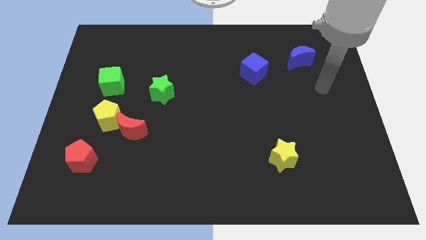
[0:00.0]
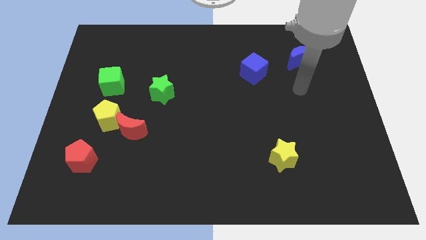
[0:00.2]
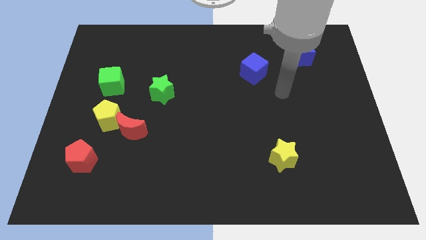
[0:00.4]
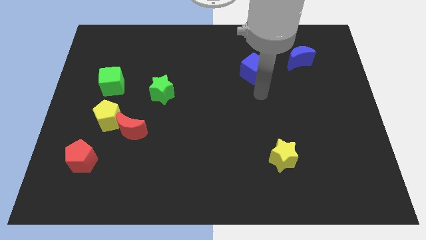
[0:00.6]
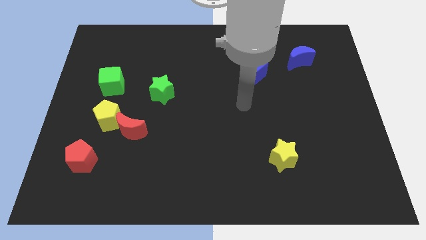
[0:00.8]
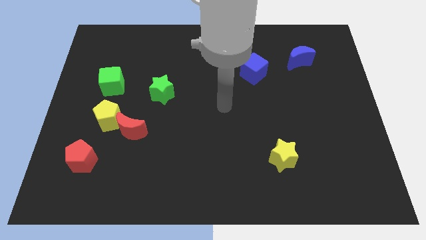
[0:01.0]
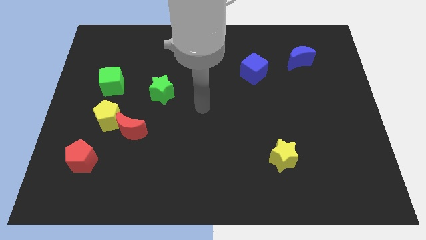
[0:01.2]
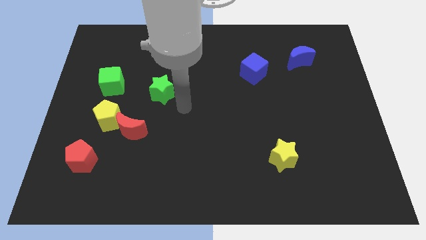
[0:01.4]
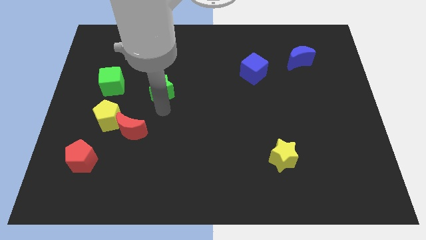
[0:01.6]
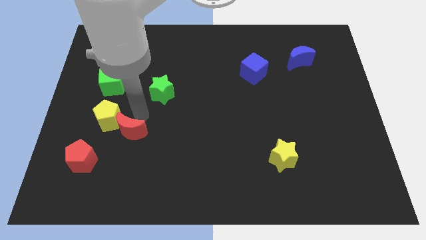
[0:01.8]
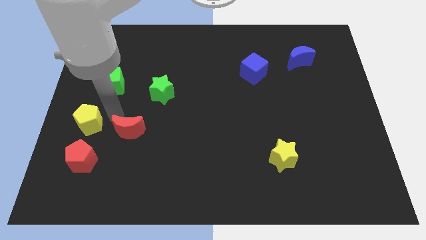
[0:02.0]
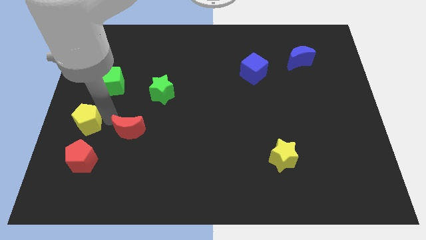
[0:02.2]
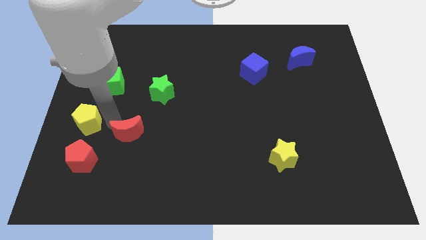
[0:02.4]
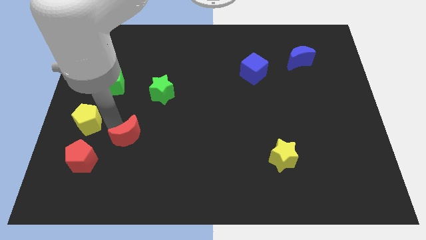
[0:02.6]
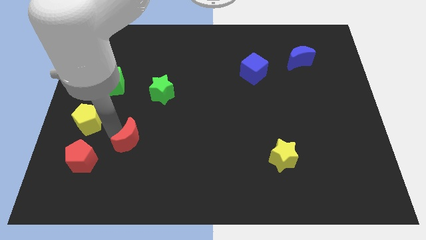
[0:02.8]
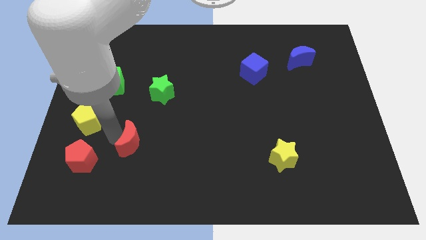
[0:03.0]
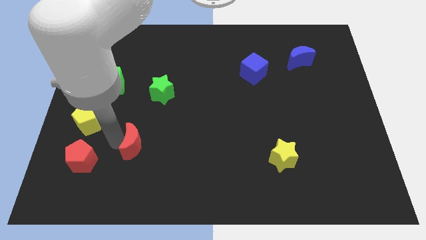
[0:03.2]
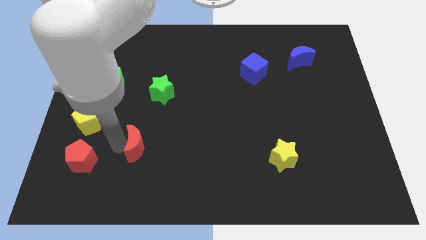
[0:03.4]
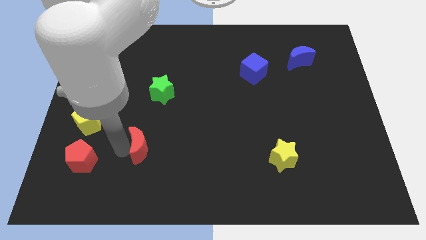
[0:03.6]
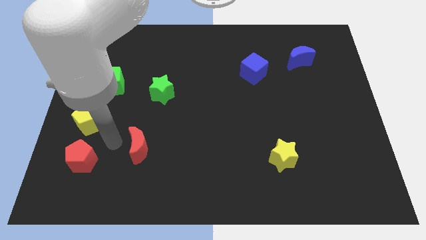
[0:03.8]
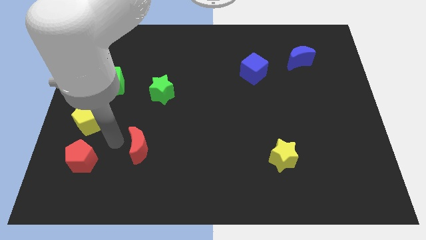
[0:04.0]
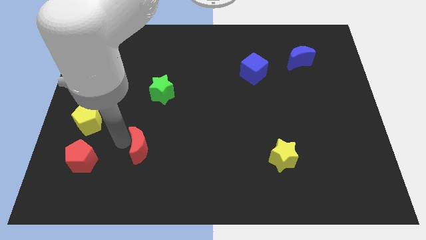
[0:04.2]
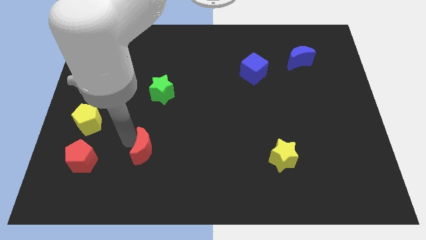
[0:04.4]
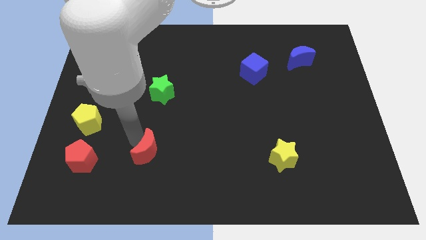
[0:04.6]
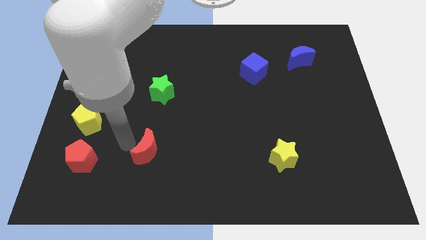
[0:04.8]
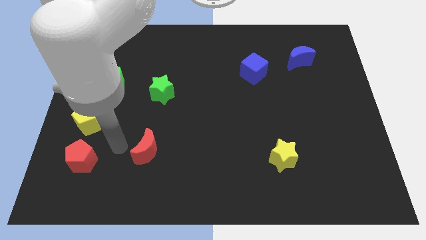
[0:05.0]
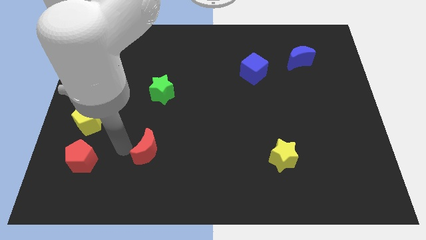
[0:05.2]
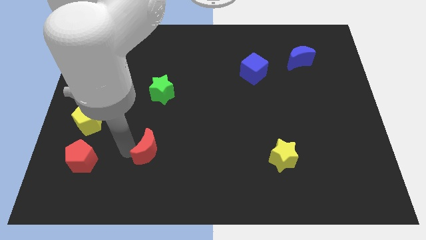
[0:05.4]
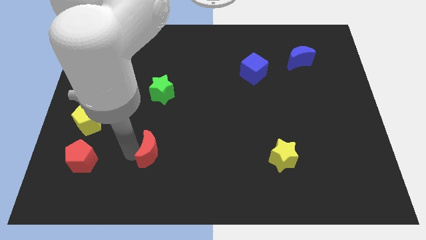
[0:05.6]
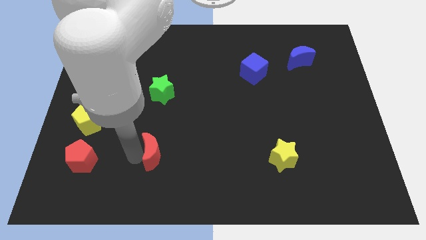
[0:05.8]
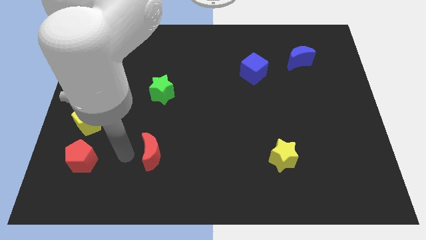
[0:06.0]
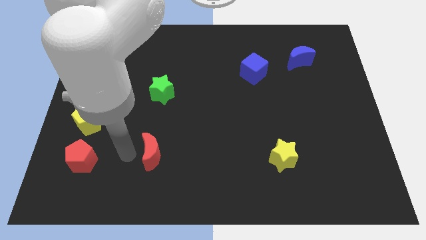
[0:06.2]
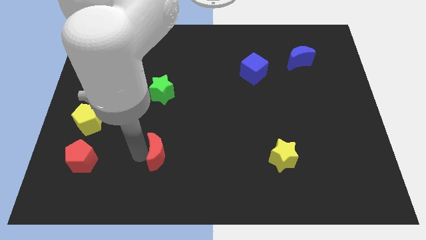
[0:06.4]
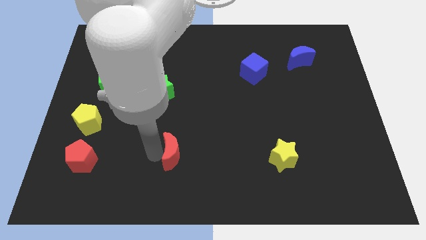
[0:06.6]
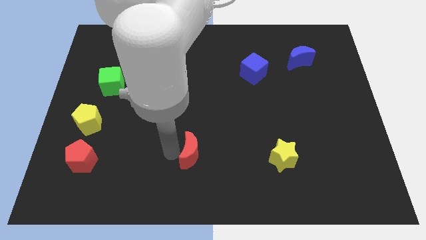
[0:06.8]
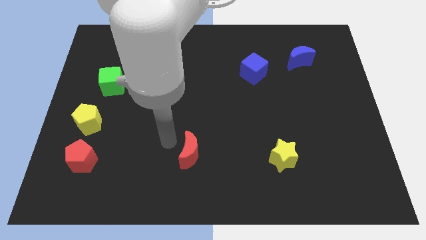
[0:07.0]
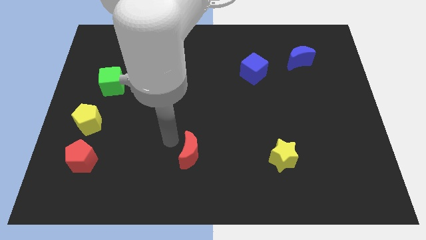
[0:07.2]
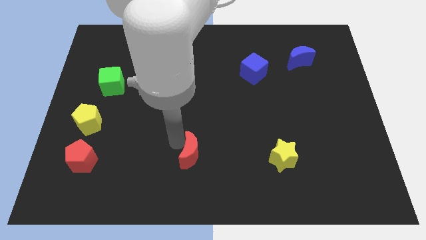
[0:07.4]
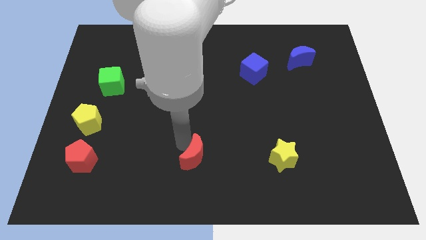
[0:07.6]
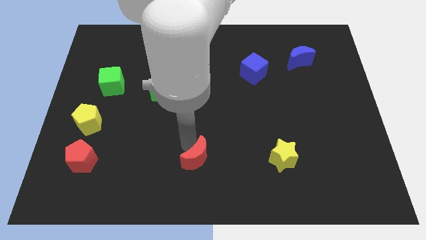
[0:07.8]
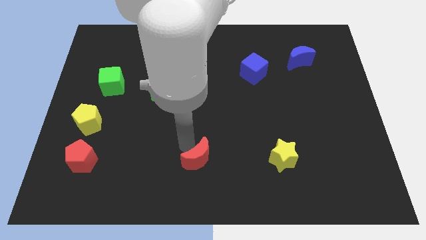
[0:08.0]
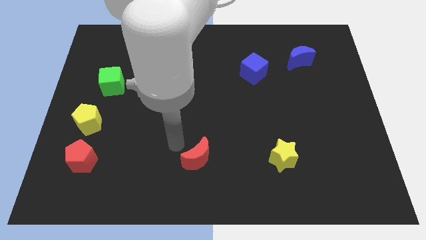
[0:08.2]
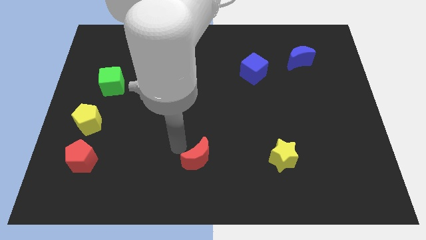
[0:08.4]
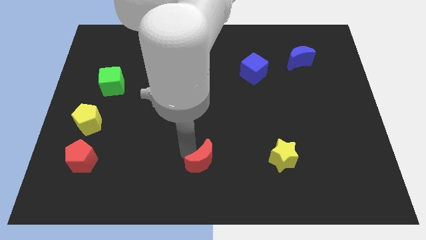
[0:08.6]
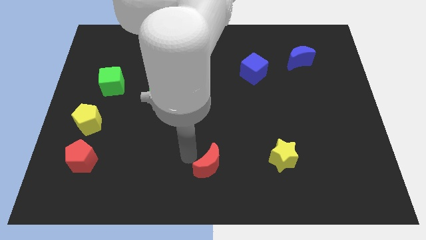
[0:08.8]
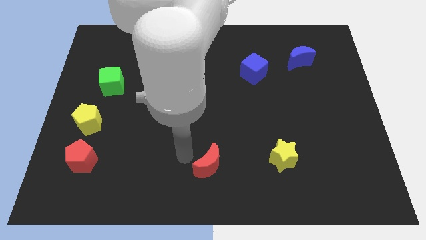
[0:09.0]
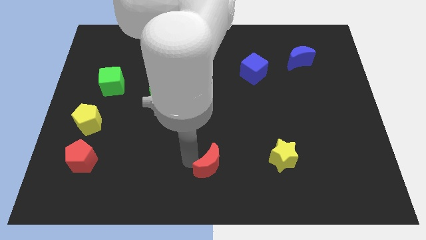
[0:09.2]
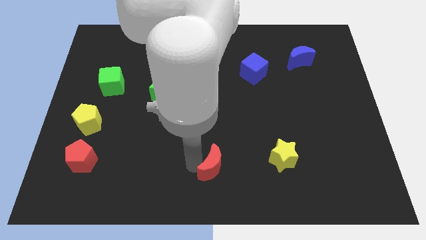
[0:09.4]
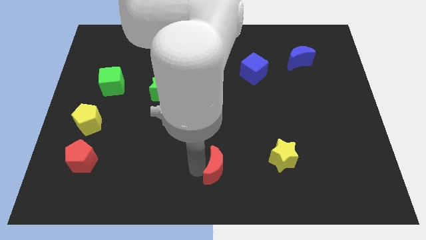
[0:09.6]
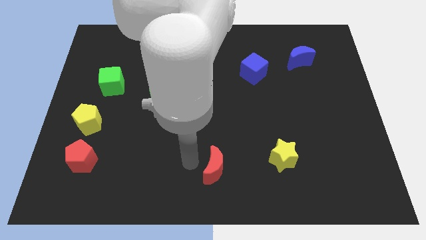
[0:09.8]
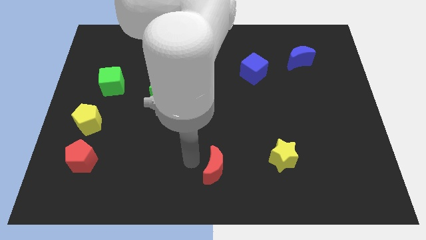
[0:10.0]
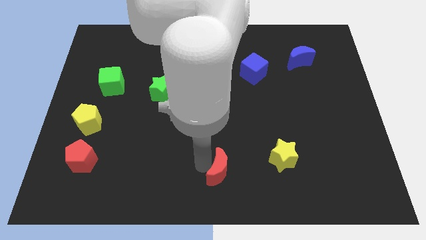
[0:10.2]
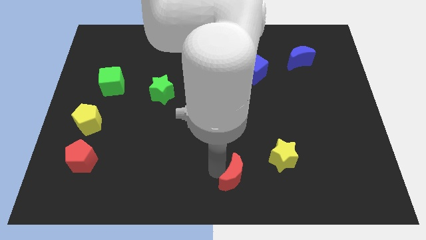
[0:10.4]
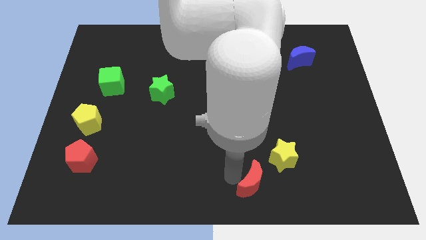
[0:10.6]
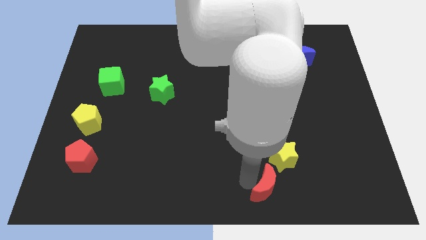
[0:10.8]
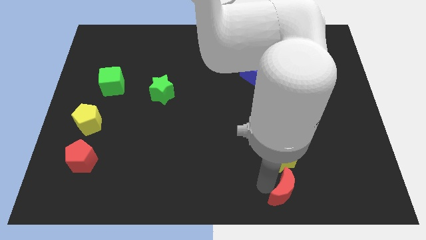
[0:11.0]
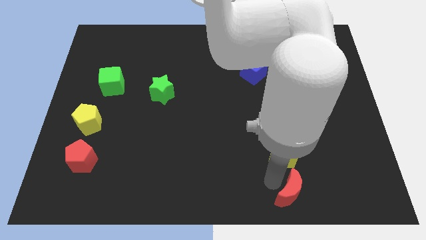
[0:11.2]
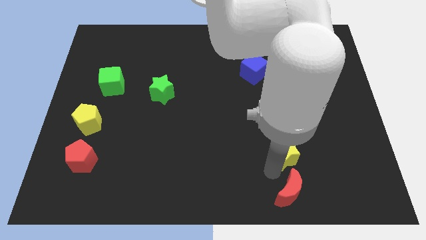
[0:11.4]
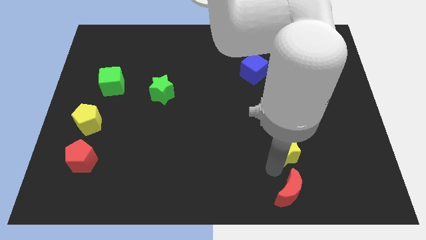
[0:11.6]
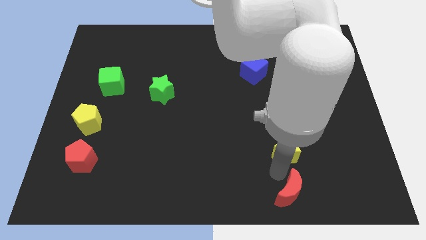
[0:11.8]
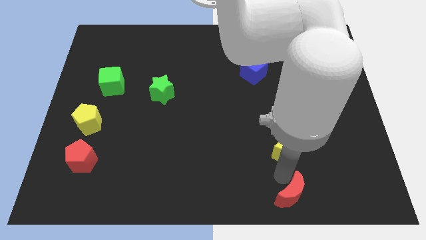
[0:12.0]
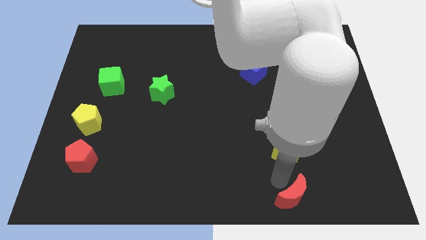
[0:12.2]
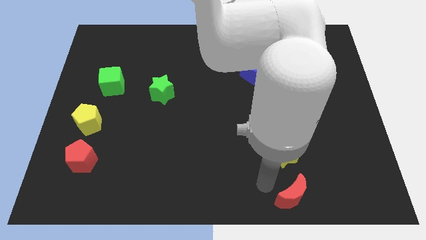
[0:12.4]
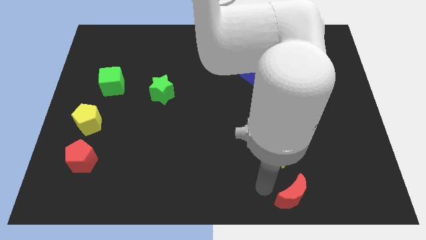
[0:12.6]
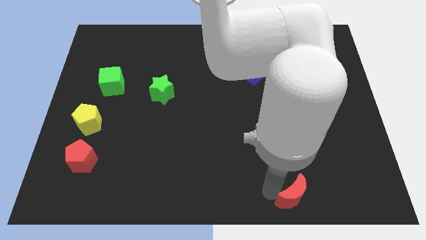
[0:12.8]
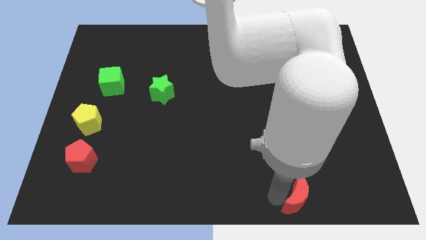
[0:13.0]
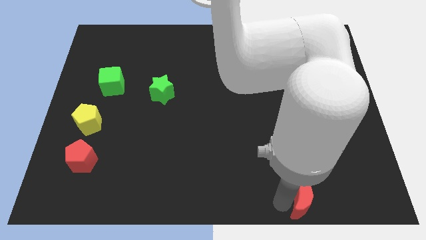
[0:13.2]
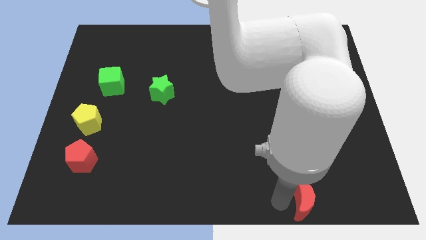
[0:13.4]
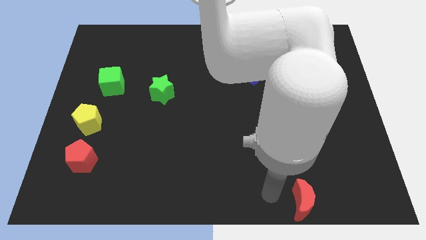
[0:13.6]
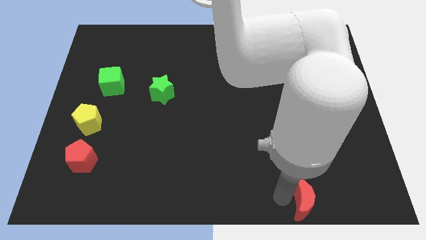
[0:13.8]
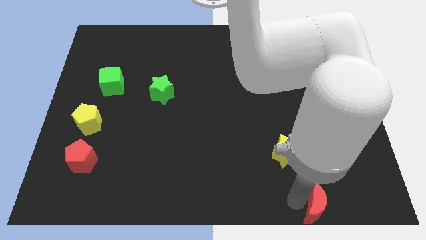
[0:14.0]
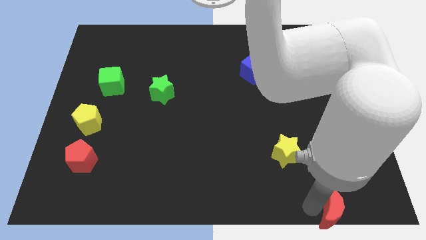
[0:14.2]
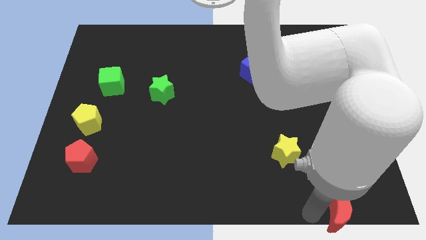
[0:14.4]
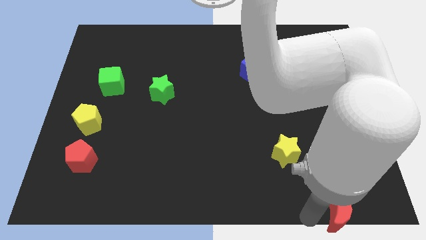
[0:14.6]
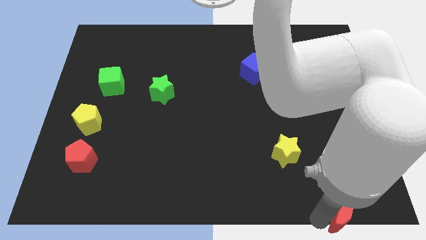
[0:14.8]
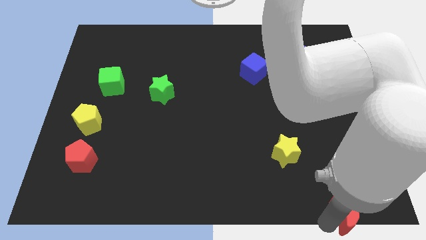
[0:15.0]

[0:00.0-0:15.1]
push the red moon to the lower right corner
